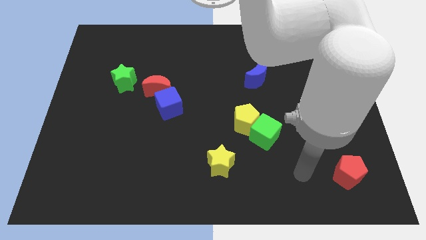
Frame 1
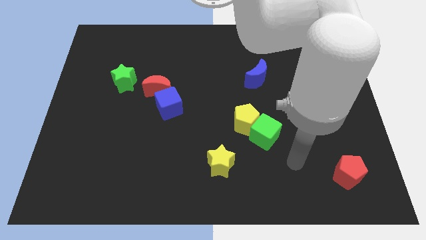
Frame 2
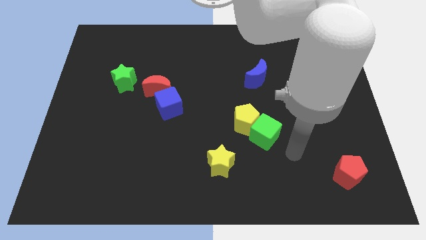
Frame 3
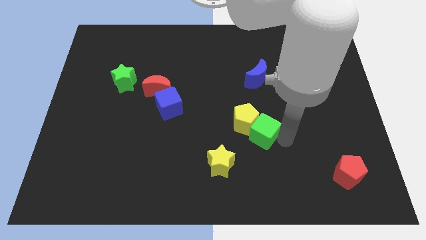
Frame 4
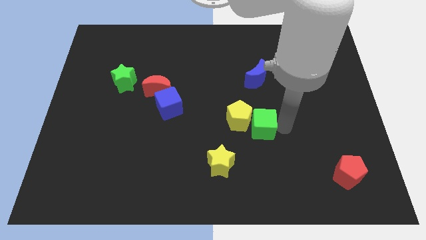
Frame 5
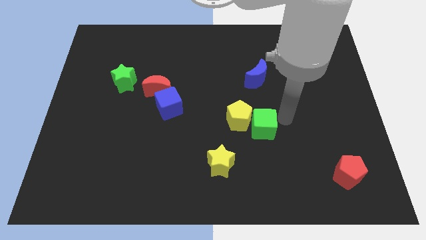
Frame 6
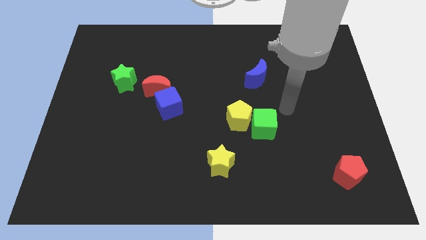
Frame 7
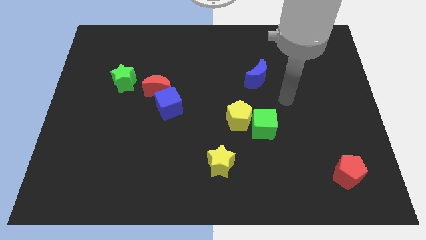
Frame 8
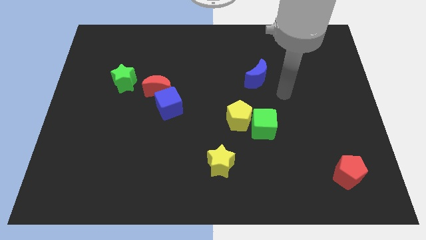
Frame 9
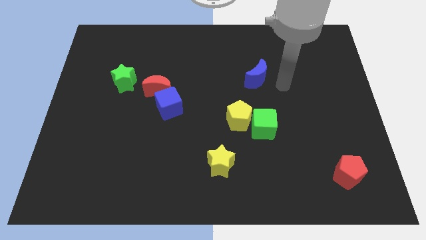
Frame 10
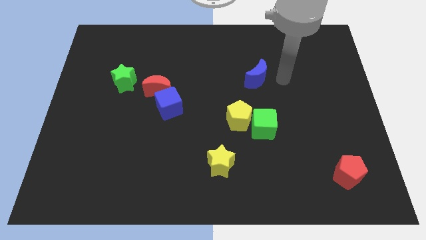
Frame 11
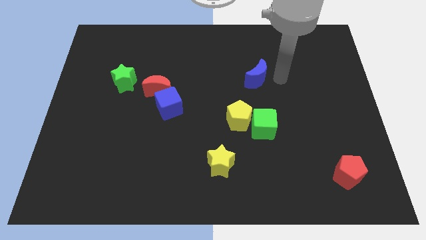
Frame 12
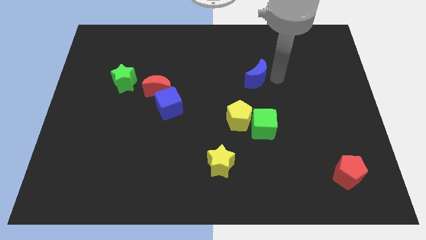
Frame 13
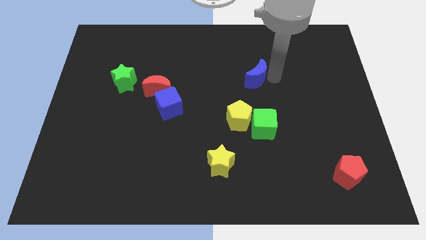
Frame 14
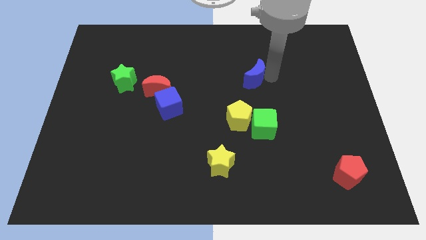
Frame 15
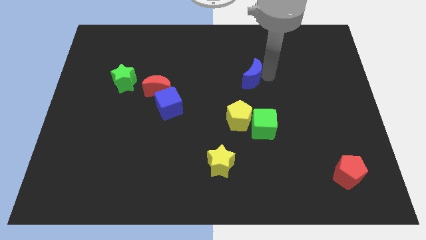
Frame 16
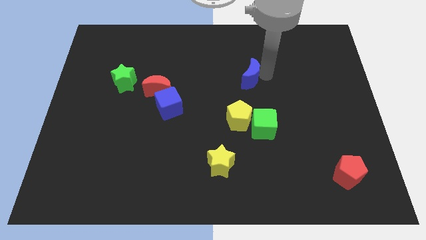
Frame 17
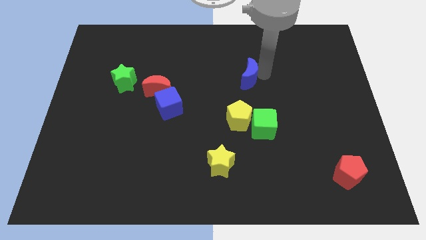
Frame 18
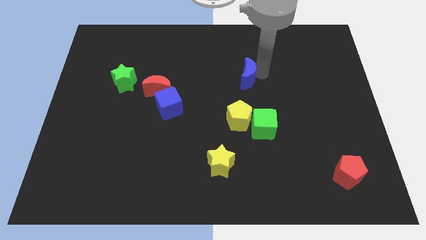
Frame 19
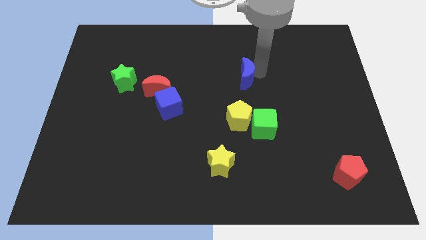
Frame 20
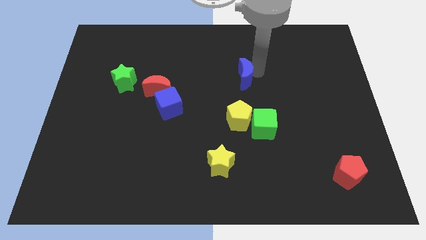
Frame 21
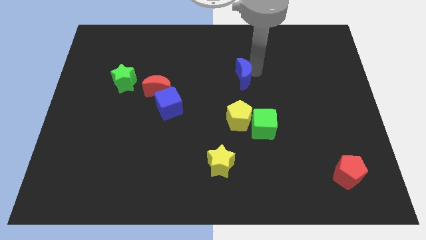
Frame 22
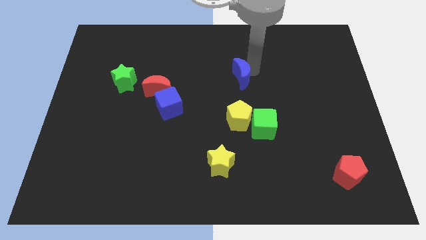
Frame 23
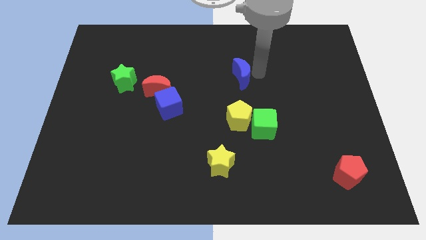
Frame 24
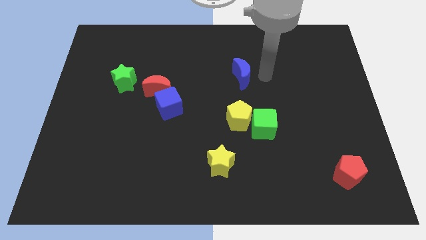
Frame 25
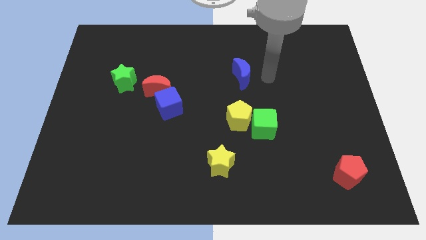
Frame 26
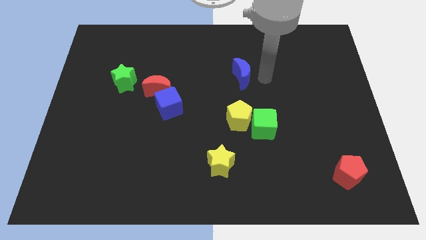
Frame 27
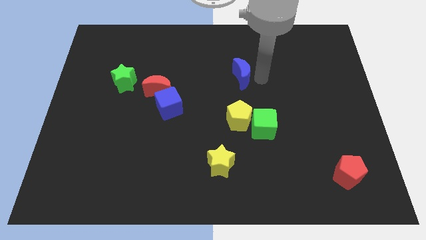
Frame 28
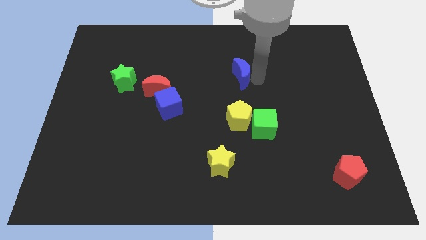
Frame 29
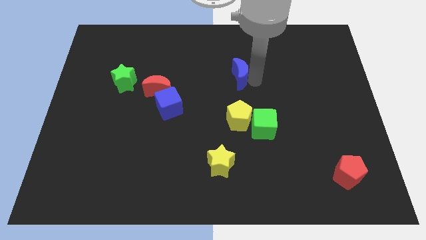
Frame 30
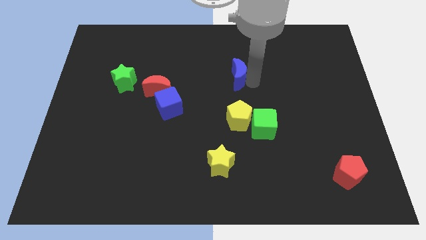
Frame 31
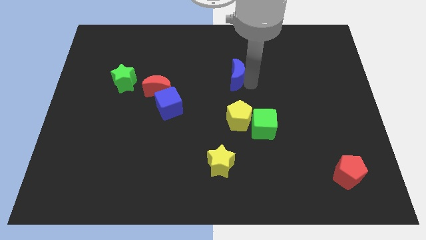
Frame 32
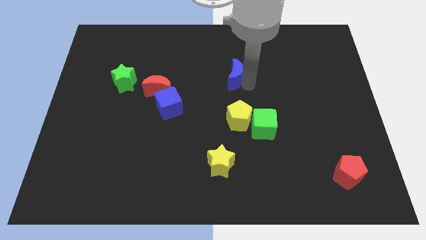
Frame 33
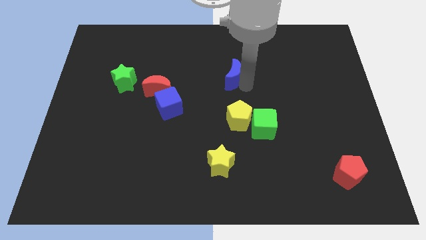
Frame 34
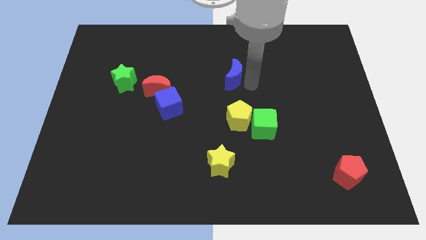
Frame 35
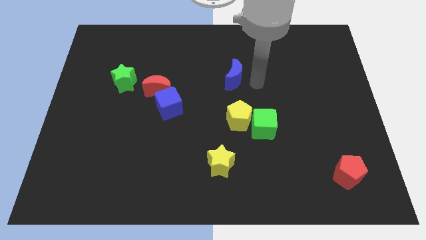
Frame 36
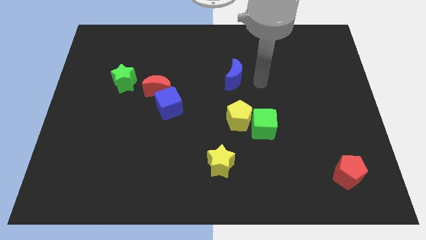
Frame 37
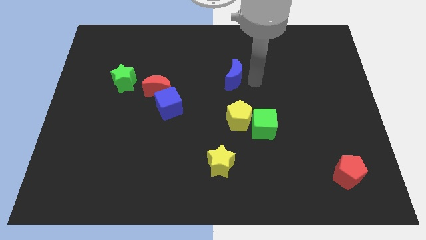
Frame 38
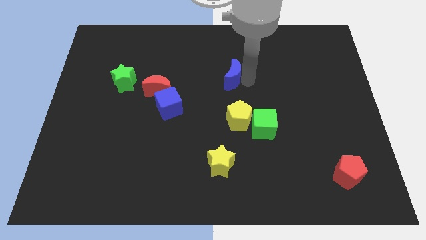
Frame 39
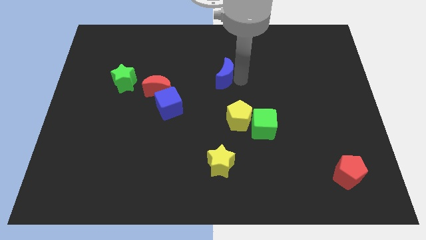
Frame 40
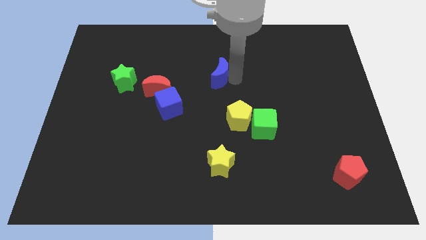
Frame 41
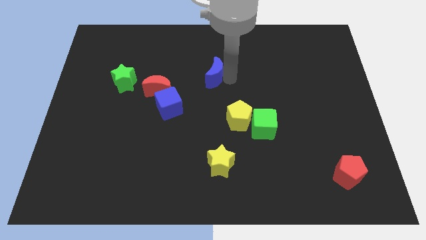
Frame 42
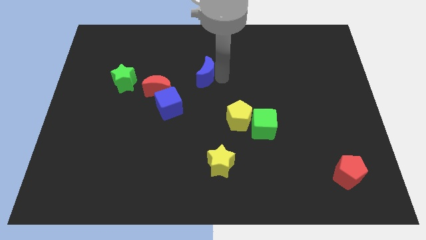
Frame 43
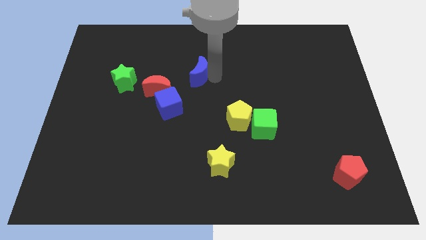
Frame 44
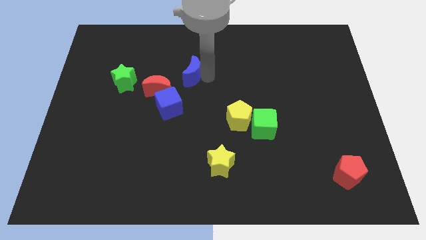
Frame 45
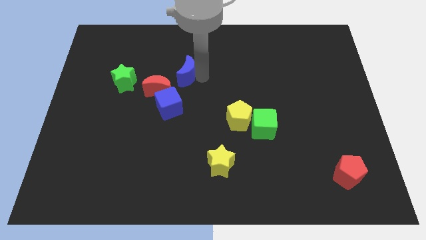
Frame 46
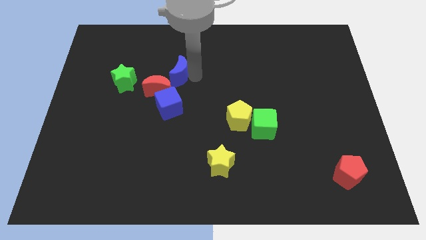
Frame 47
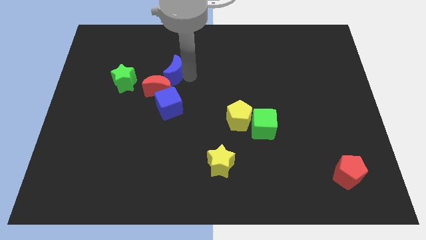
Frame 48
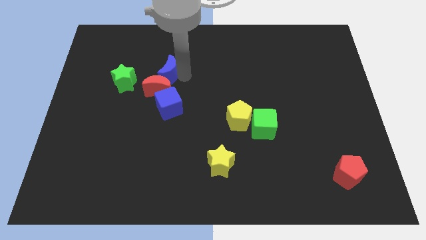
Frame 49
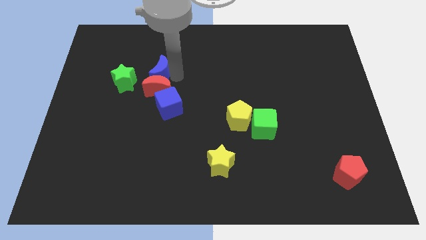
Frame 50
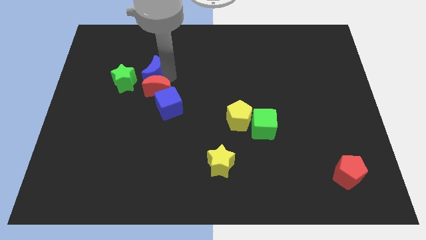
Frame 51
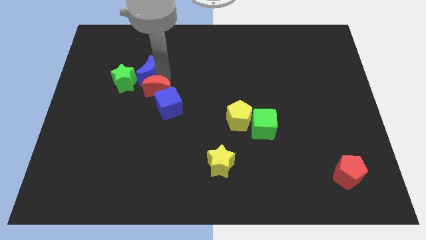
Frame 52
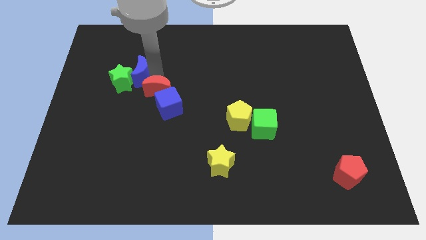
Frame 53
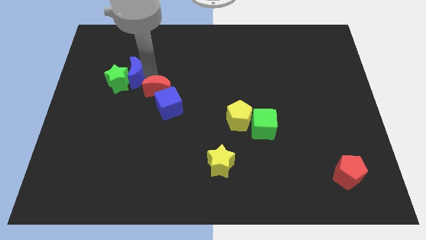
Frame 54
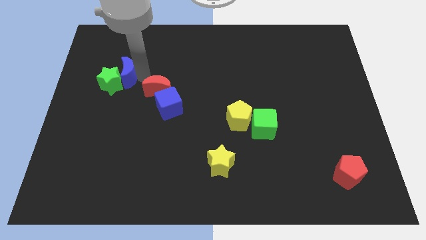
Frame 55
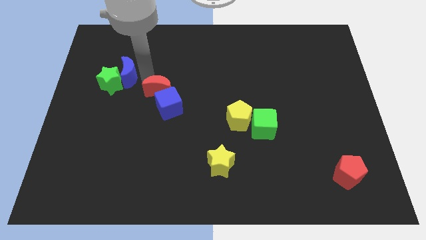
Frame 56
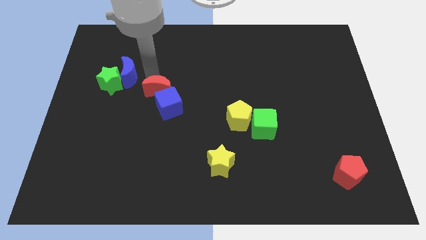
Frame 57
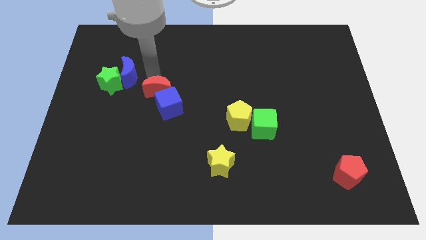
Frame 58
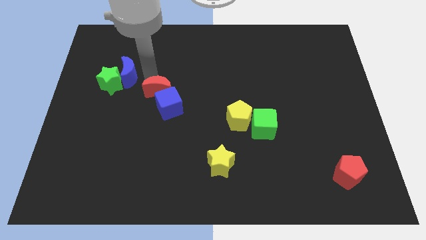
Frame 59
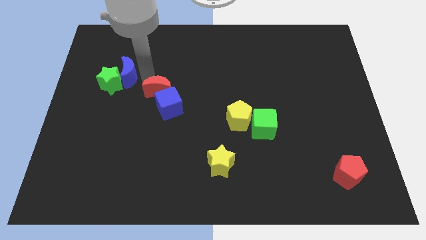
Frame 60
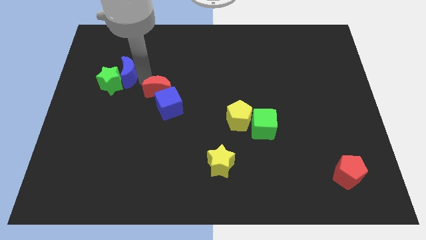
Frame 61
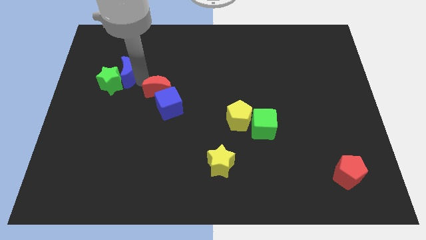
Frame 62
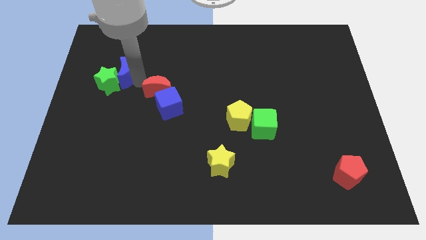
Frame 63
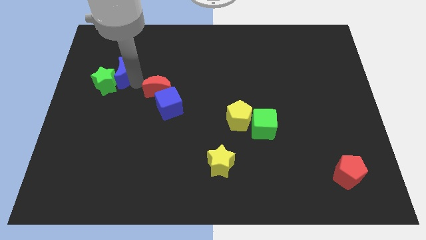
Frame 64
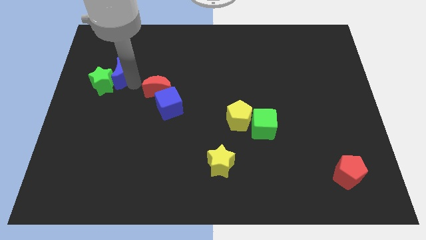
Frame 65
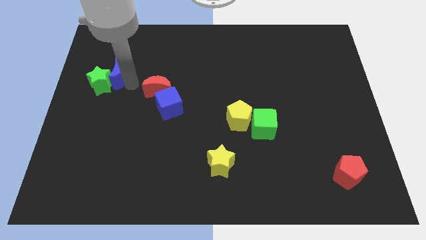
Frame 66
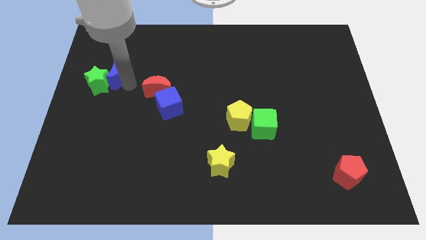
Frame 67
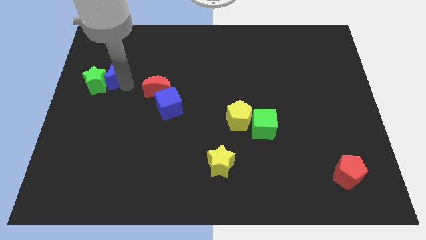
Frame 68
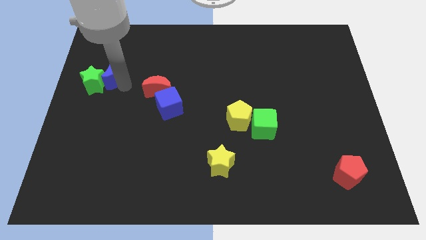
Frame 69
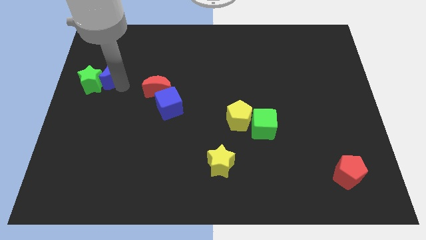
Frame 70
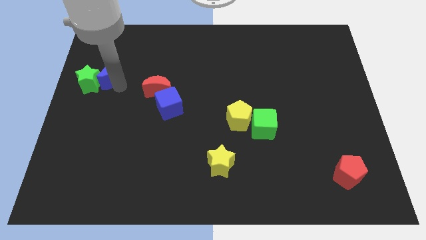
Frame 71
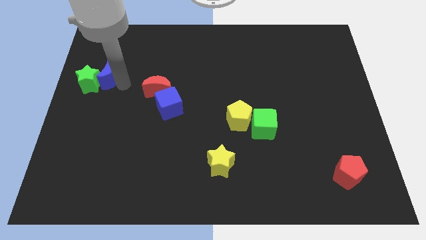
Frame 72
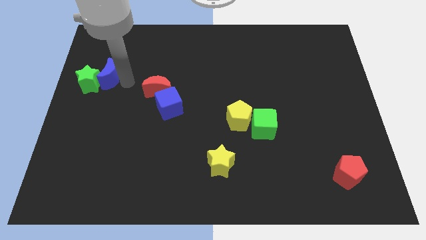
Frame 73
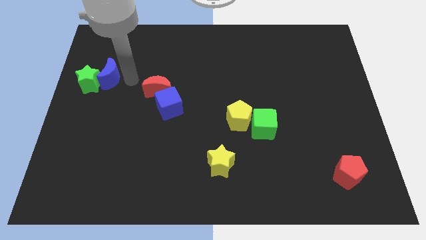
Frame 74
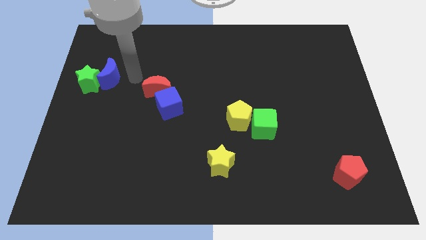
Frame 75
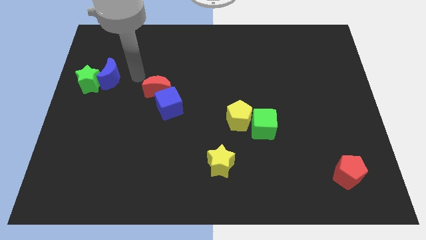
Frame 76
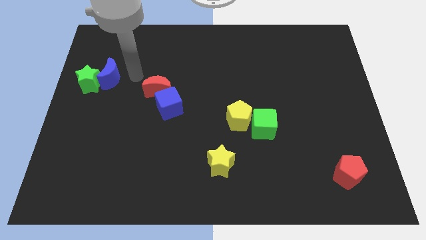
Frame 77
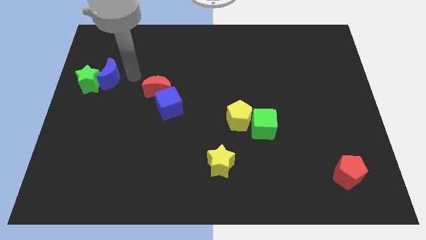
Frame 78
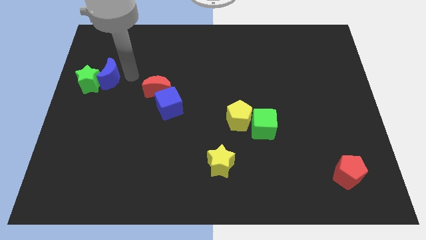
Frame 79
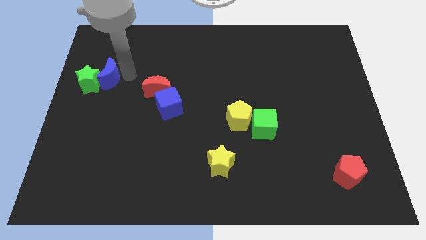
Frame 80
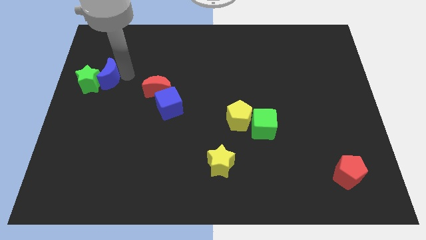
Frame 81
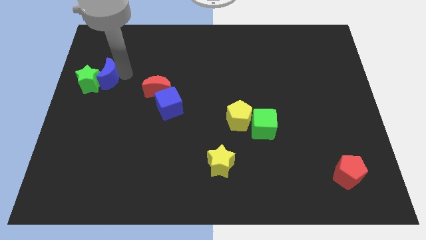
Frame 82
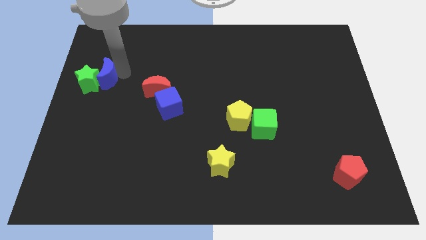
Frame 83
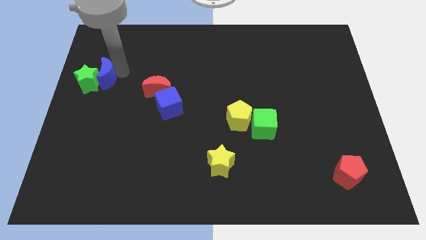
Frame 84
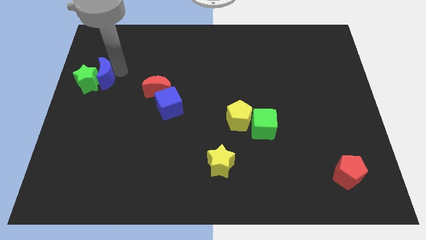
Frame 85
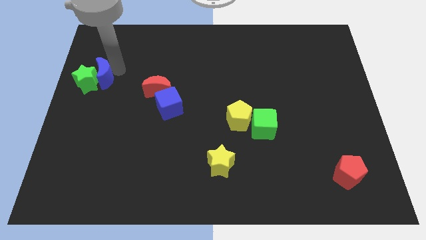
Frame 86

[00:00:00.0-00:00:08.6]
put the blue moon to the center left
